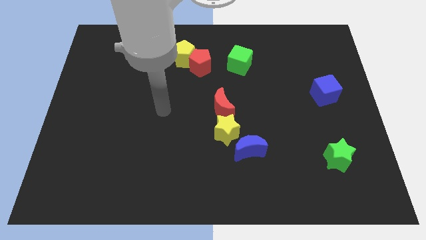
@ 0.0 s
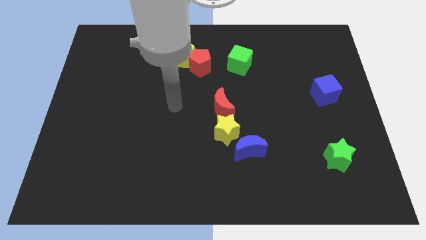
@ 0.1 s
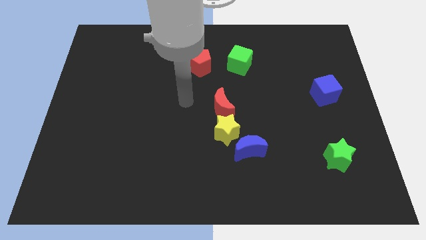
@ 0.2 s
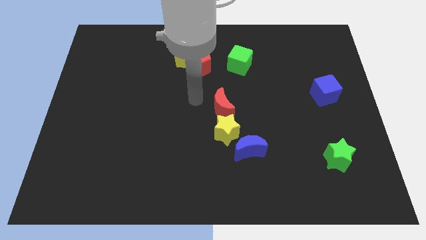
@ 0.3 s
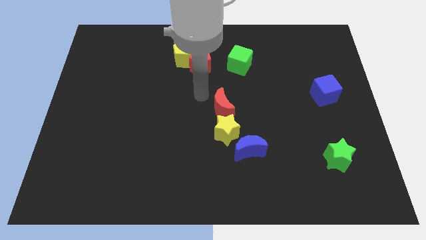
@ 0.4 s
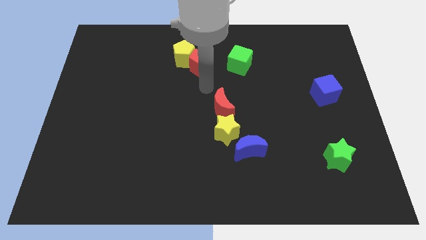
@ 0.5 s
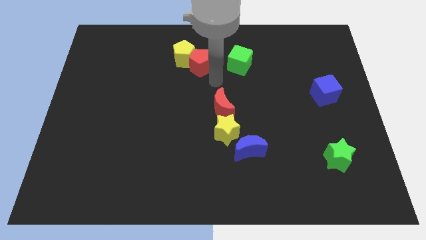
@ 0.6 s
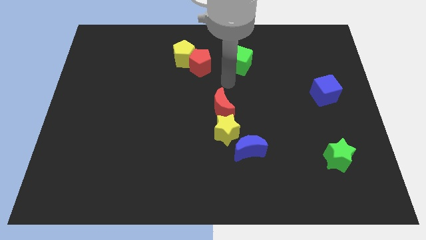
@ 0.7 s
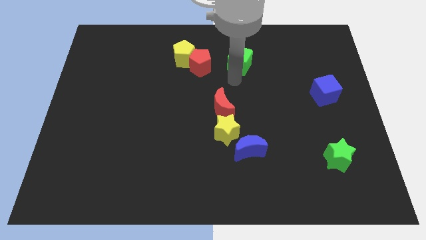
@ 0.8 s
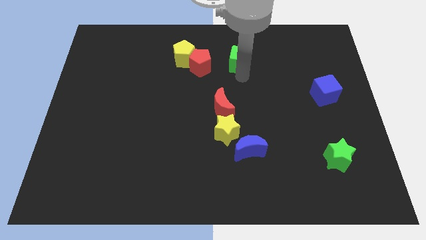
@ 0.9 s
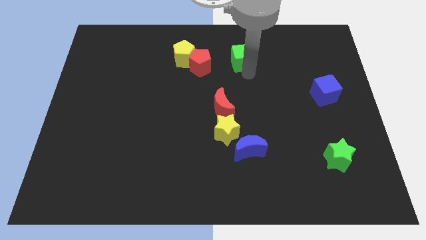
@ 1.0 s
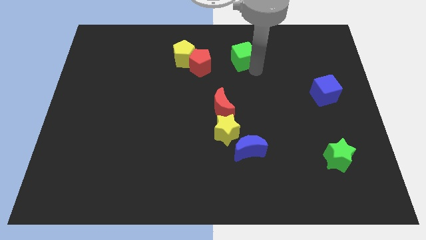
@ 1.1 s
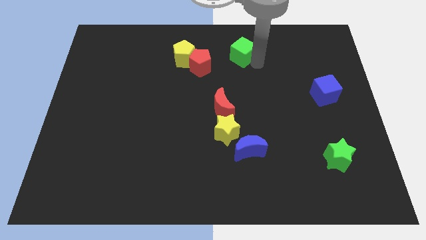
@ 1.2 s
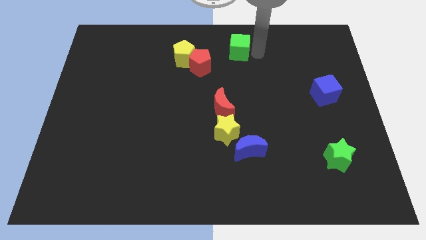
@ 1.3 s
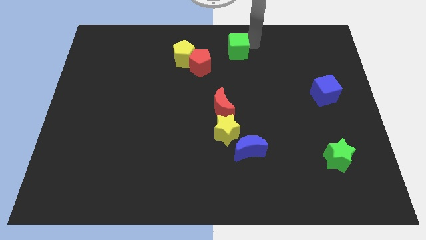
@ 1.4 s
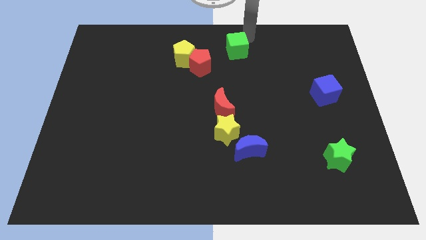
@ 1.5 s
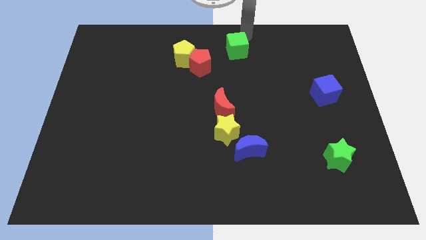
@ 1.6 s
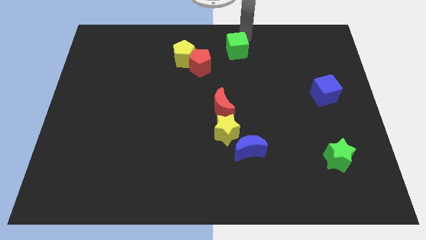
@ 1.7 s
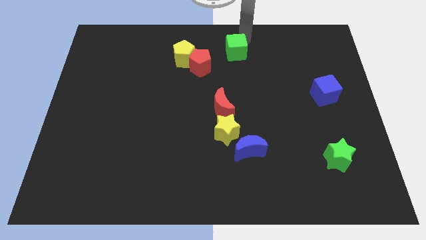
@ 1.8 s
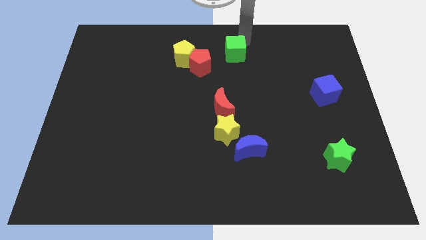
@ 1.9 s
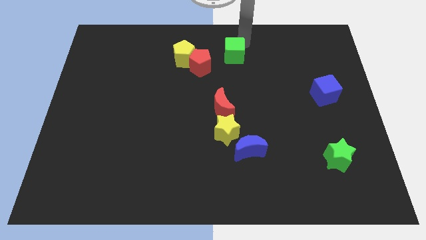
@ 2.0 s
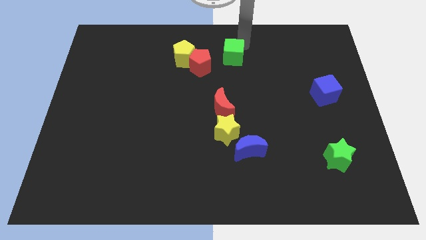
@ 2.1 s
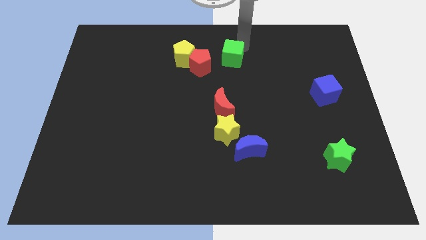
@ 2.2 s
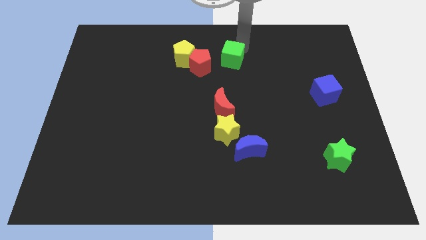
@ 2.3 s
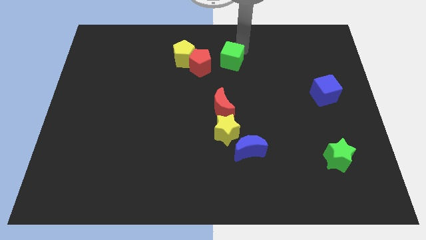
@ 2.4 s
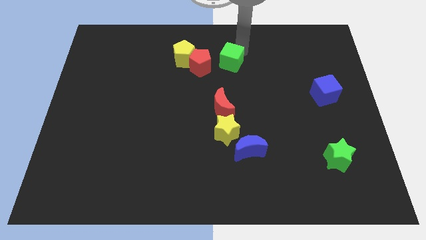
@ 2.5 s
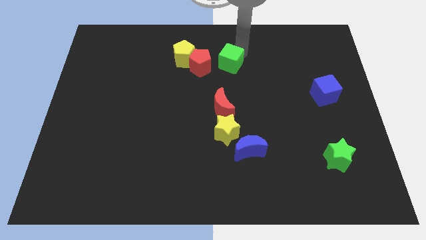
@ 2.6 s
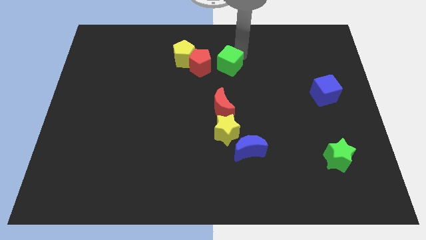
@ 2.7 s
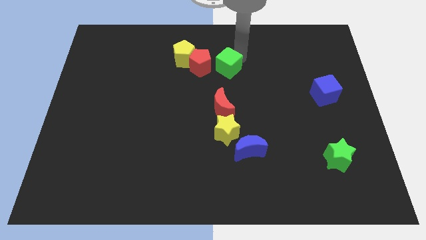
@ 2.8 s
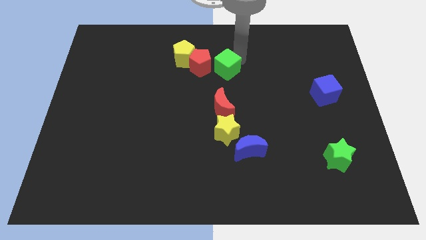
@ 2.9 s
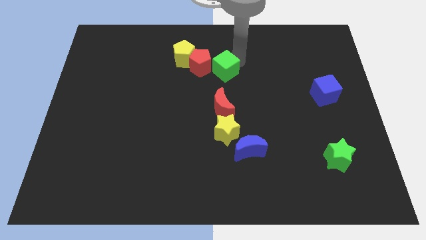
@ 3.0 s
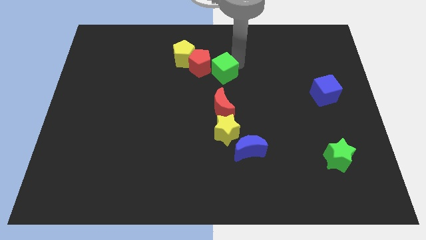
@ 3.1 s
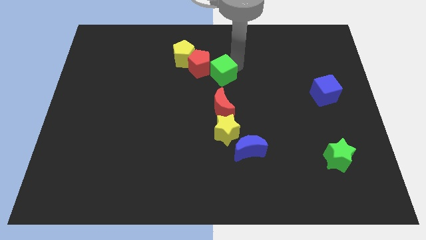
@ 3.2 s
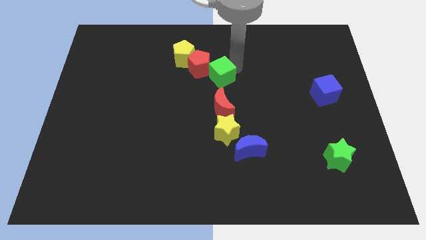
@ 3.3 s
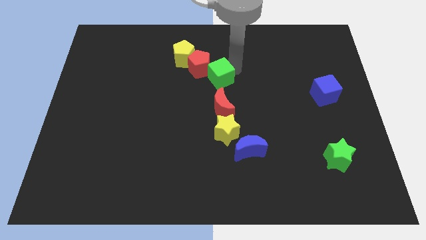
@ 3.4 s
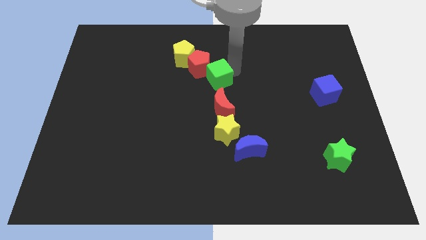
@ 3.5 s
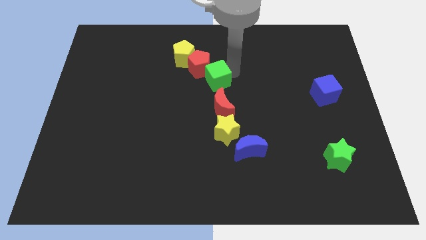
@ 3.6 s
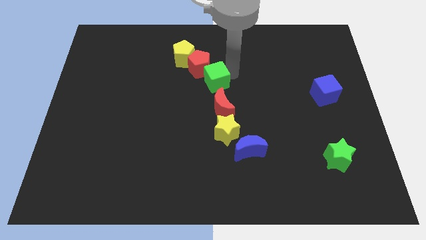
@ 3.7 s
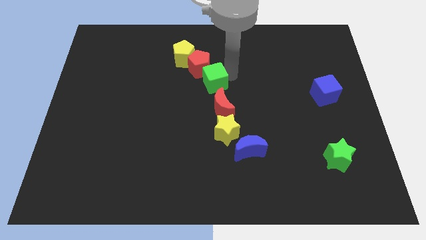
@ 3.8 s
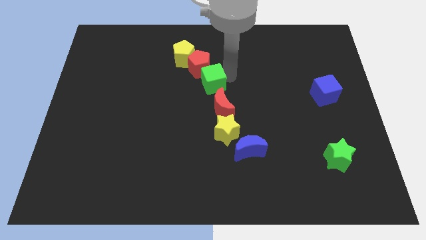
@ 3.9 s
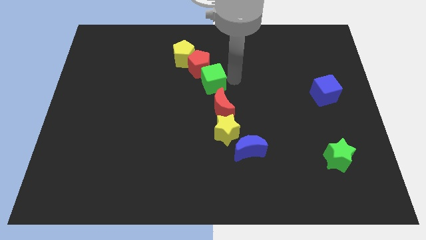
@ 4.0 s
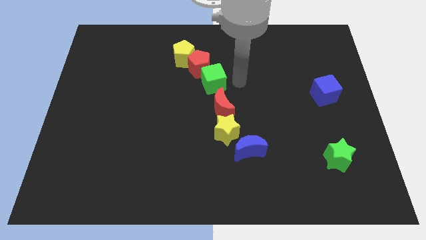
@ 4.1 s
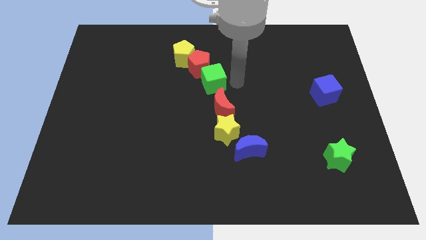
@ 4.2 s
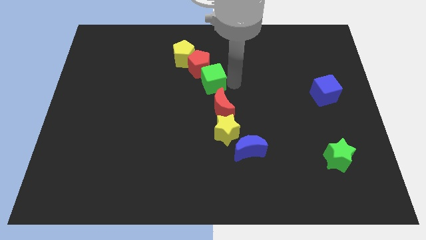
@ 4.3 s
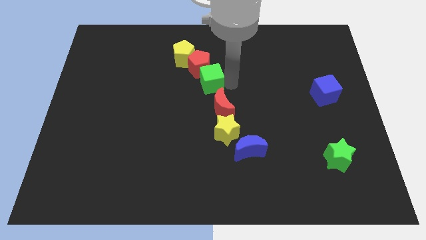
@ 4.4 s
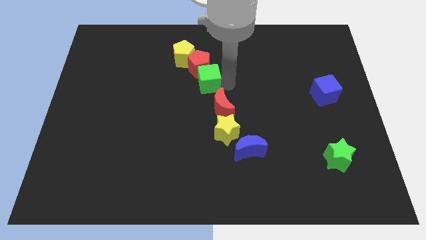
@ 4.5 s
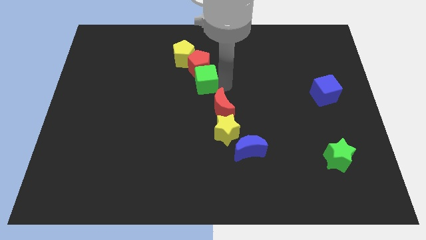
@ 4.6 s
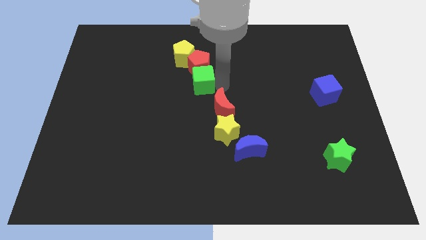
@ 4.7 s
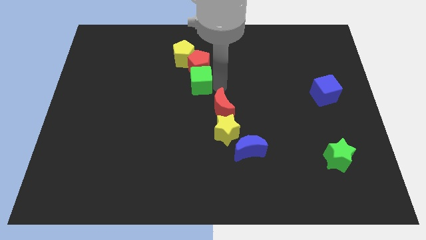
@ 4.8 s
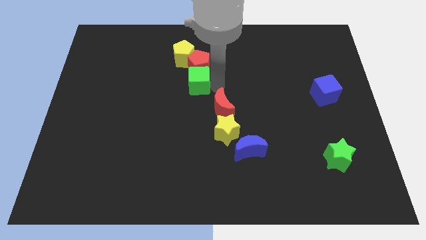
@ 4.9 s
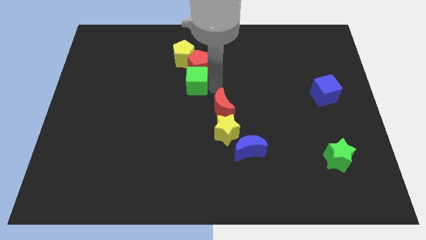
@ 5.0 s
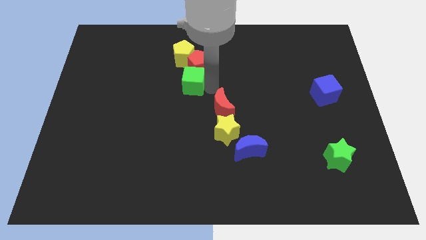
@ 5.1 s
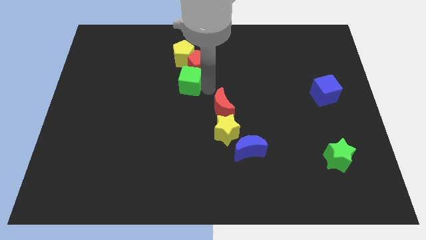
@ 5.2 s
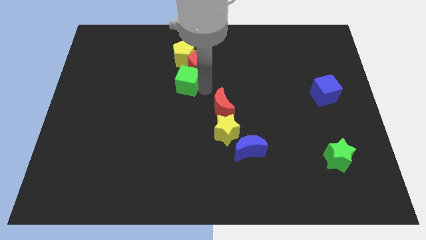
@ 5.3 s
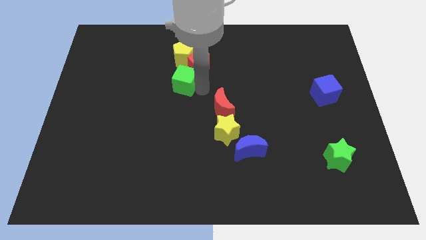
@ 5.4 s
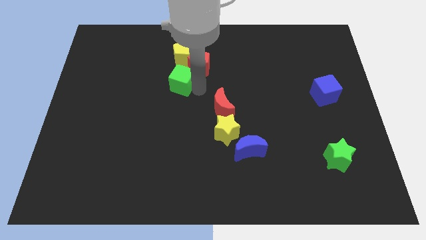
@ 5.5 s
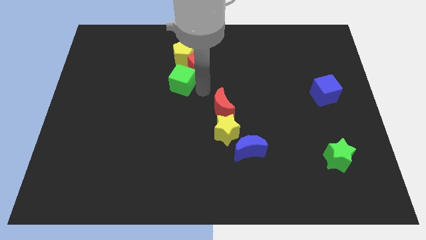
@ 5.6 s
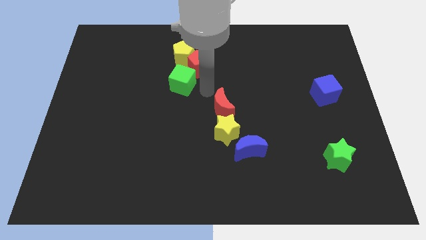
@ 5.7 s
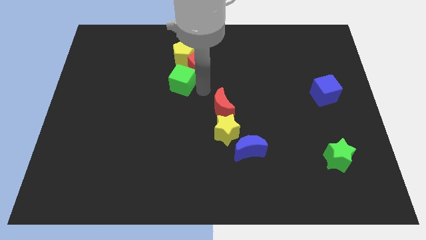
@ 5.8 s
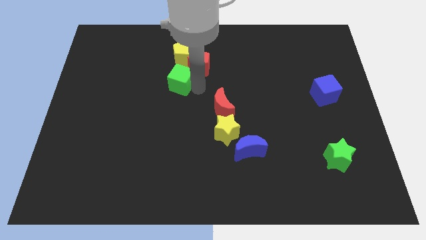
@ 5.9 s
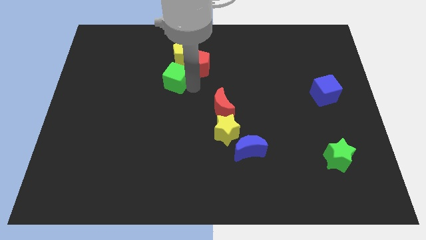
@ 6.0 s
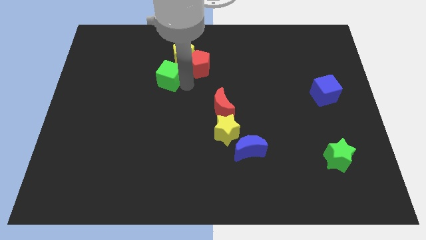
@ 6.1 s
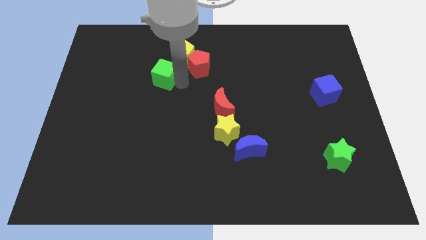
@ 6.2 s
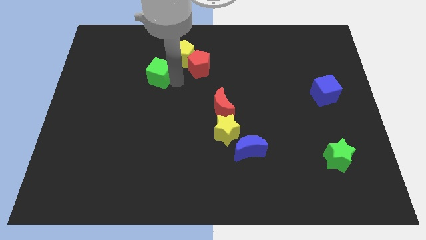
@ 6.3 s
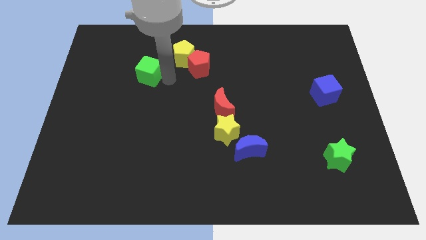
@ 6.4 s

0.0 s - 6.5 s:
move the green cube to the left

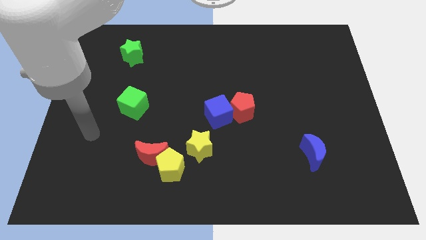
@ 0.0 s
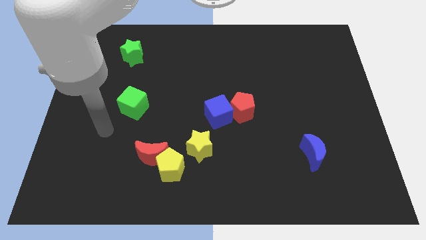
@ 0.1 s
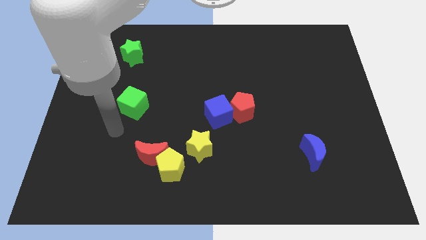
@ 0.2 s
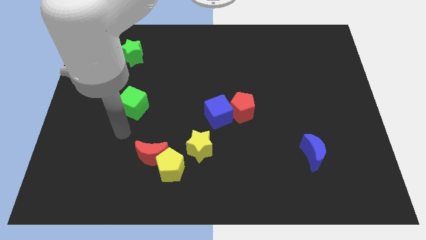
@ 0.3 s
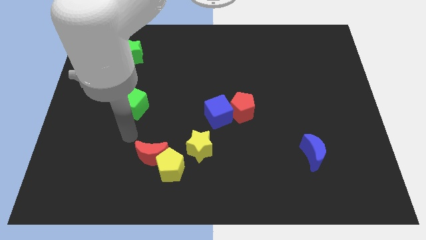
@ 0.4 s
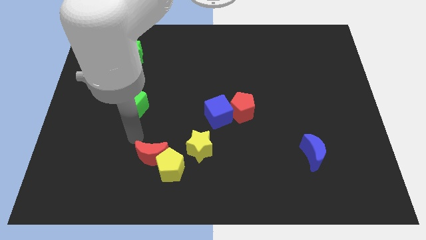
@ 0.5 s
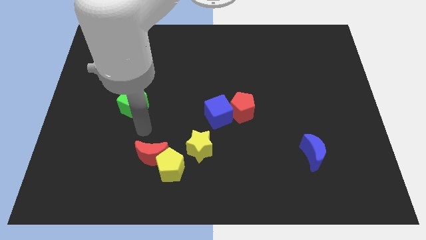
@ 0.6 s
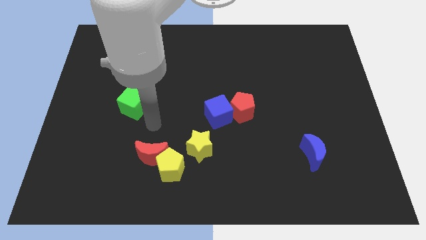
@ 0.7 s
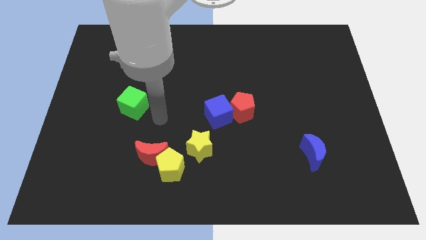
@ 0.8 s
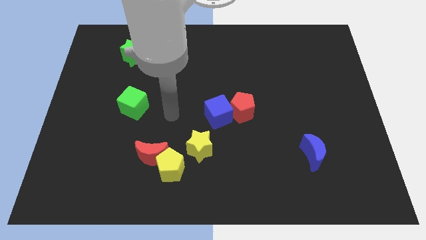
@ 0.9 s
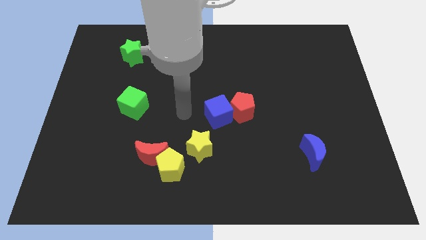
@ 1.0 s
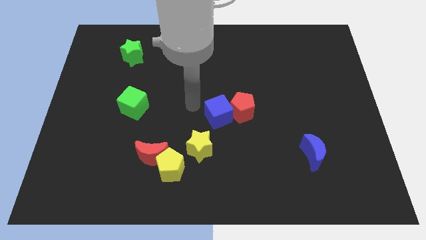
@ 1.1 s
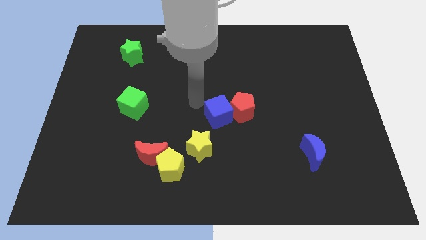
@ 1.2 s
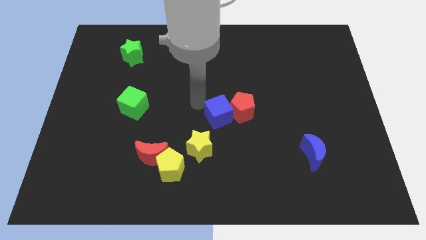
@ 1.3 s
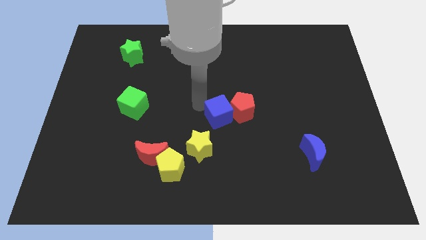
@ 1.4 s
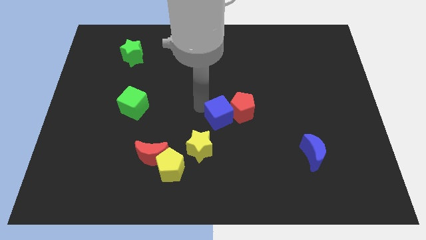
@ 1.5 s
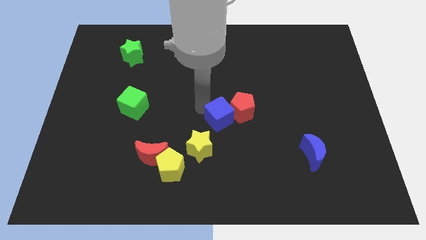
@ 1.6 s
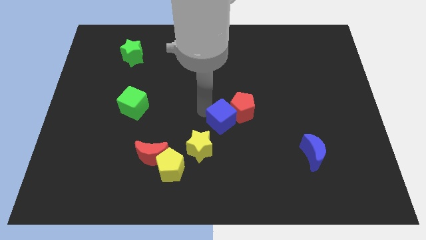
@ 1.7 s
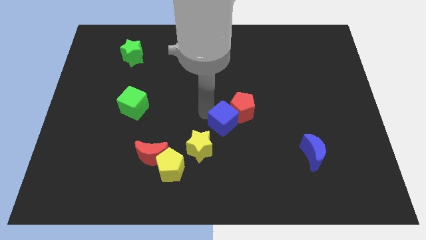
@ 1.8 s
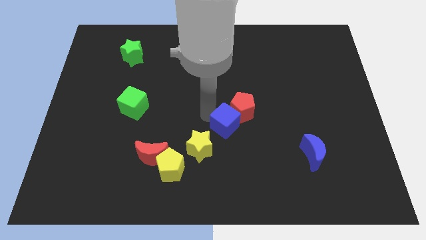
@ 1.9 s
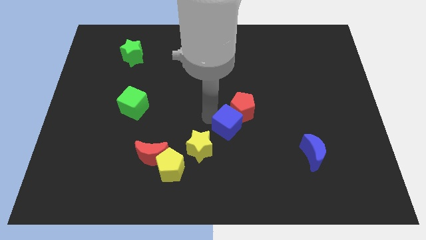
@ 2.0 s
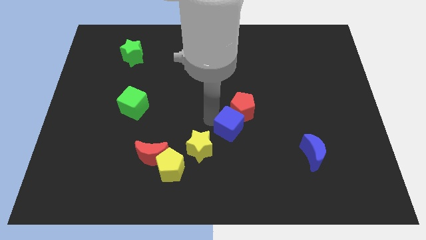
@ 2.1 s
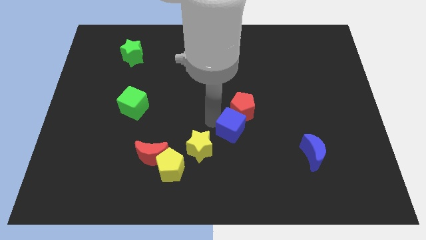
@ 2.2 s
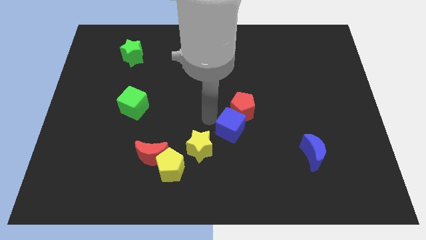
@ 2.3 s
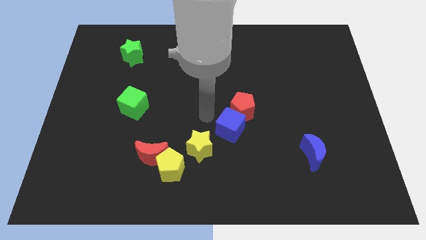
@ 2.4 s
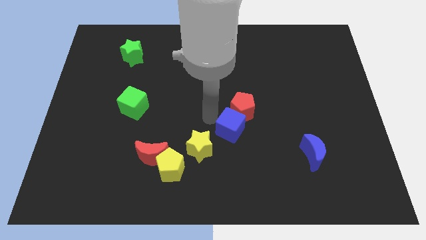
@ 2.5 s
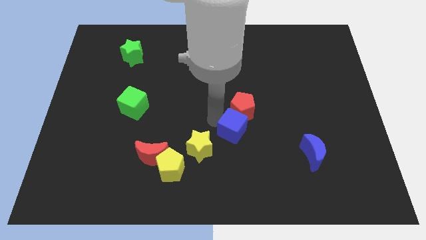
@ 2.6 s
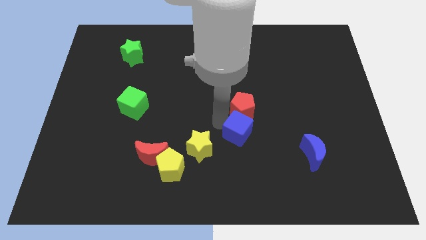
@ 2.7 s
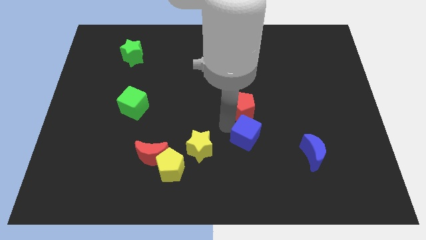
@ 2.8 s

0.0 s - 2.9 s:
move the blue cube somewhat downwards and to the right
